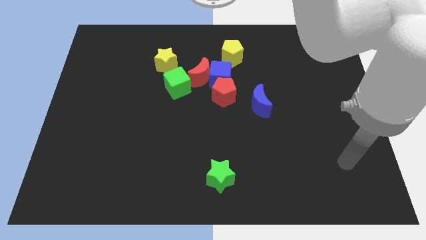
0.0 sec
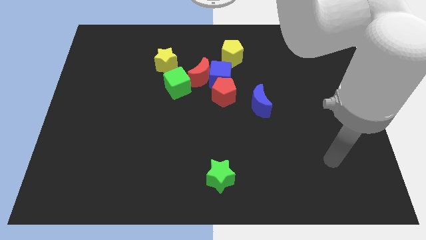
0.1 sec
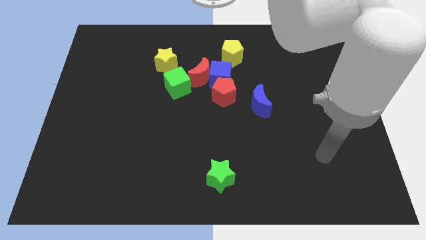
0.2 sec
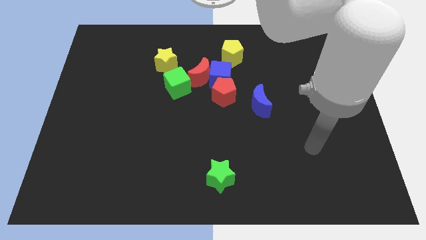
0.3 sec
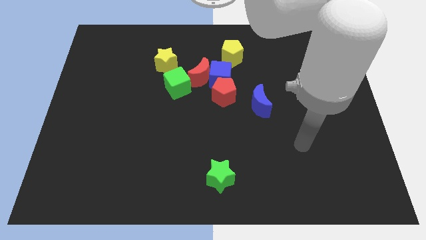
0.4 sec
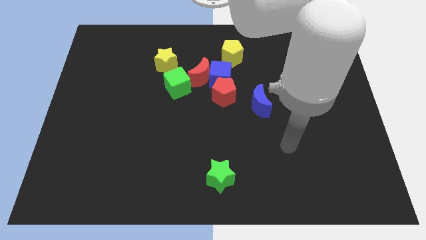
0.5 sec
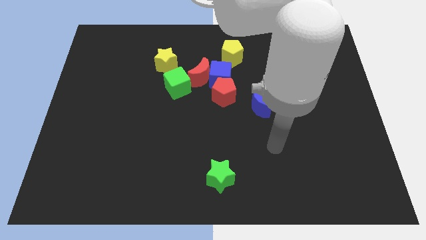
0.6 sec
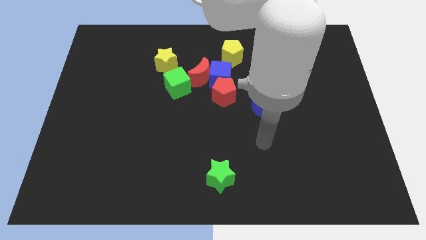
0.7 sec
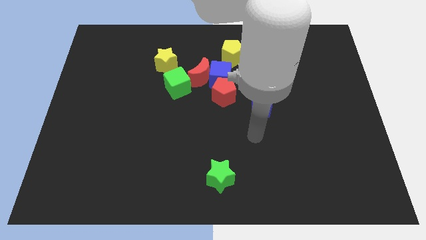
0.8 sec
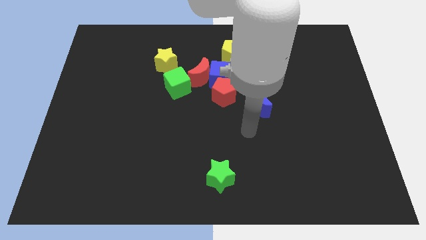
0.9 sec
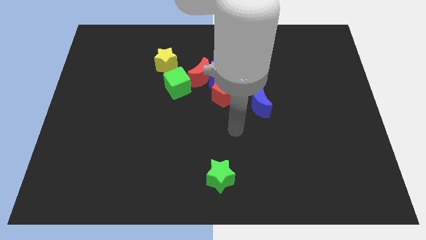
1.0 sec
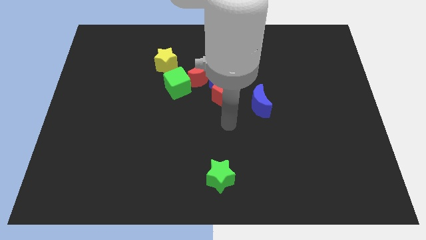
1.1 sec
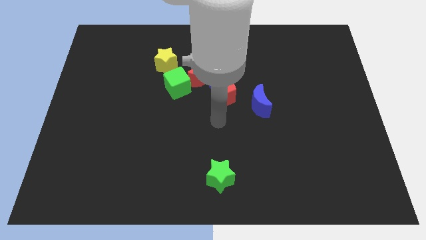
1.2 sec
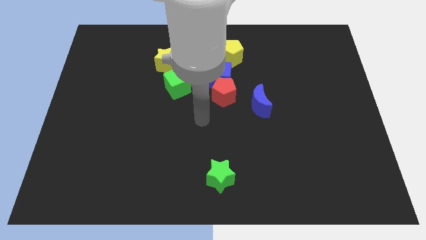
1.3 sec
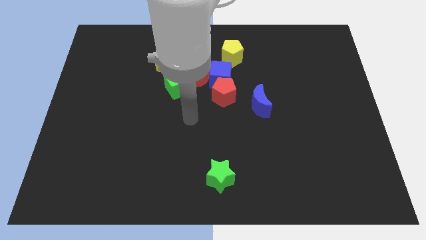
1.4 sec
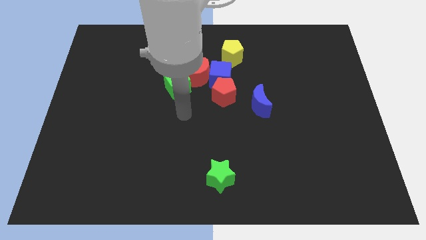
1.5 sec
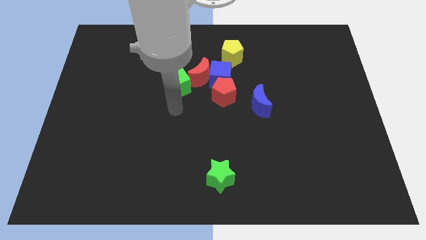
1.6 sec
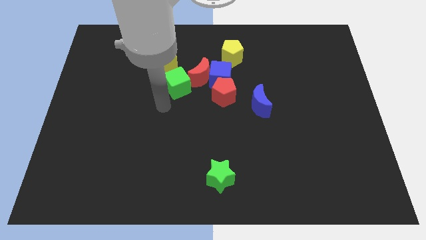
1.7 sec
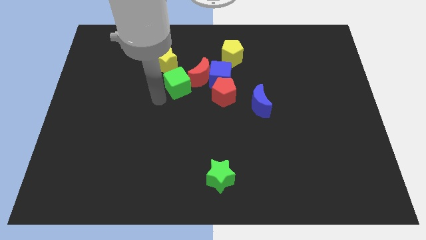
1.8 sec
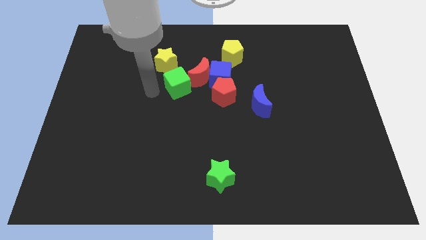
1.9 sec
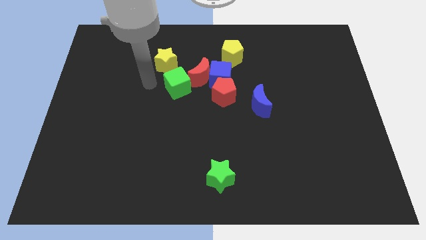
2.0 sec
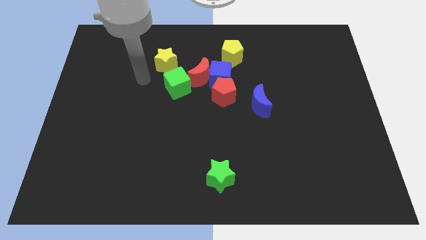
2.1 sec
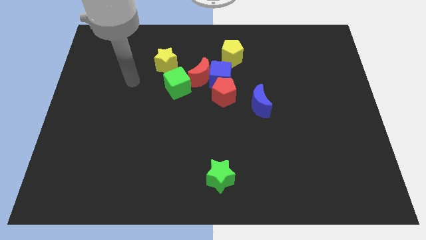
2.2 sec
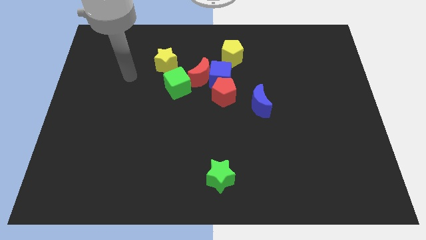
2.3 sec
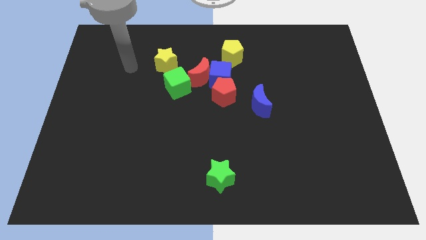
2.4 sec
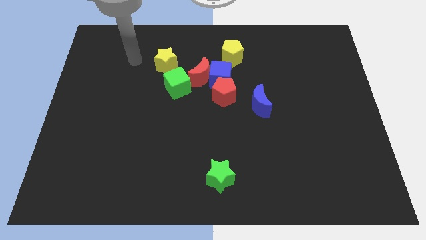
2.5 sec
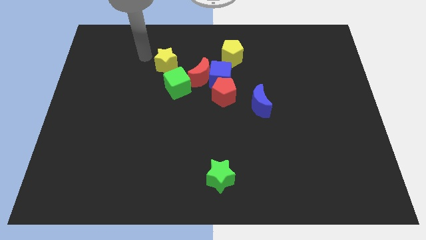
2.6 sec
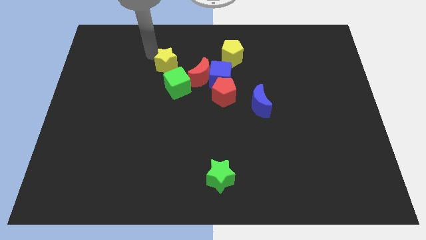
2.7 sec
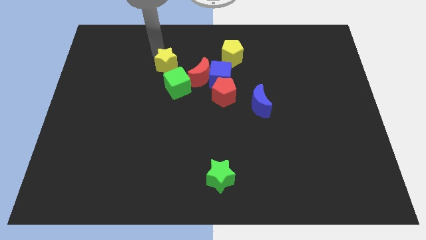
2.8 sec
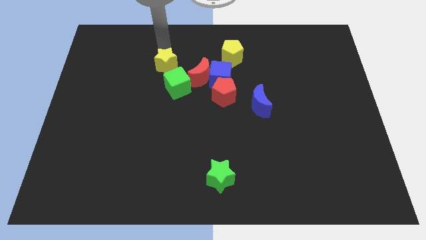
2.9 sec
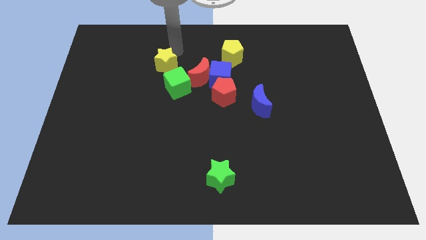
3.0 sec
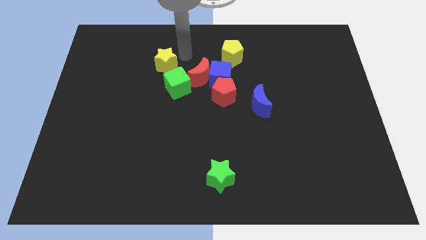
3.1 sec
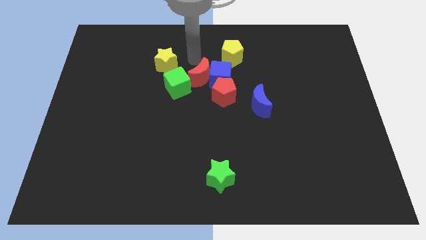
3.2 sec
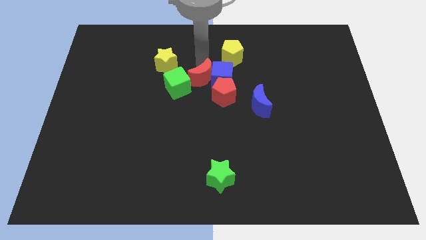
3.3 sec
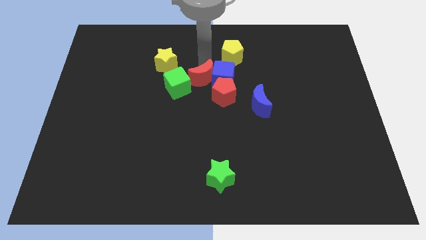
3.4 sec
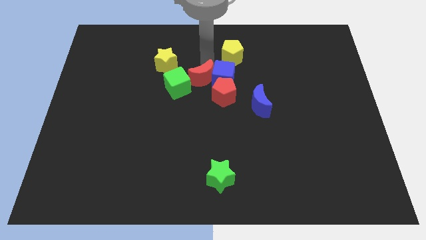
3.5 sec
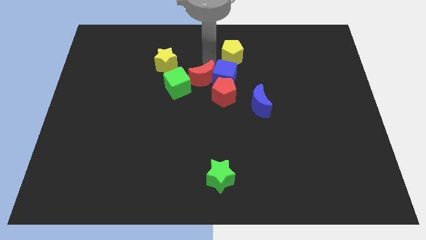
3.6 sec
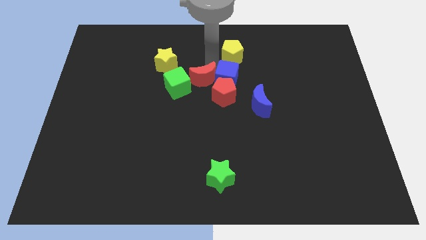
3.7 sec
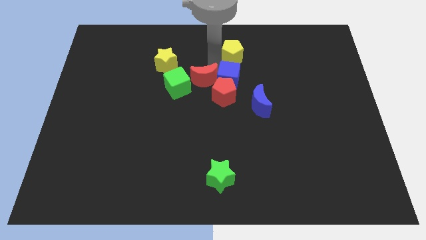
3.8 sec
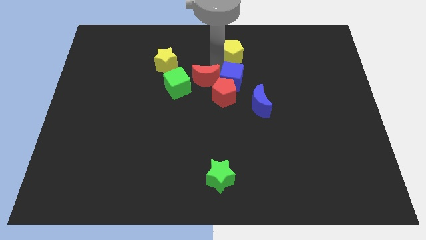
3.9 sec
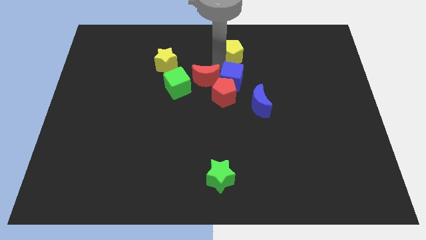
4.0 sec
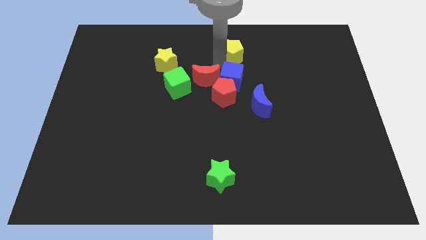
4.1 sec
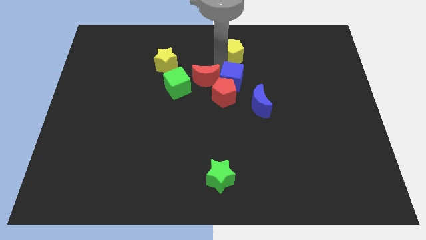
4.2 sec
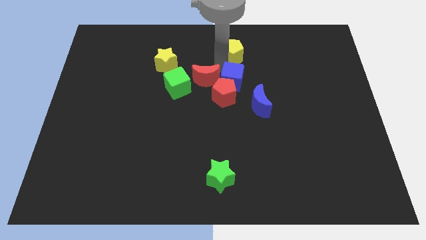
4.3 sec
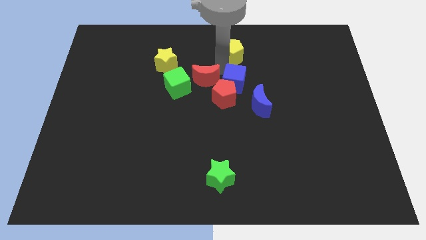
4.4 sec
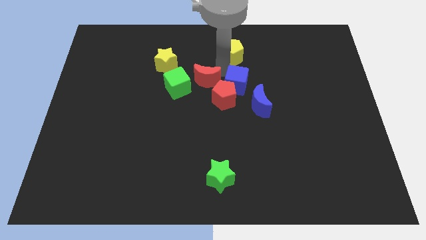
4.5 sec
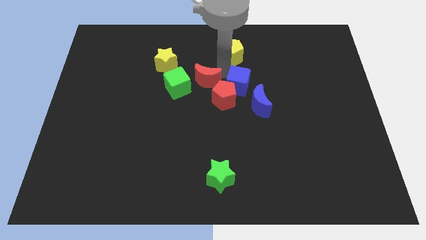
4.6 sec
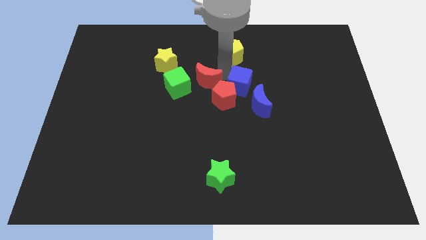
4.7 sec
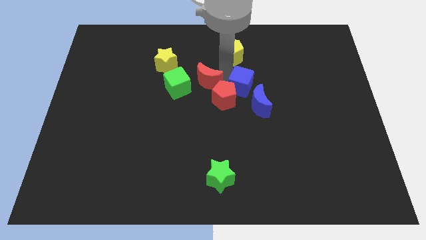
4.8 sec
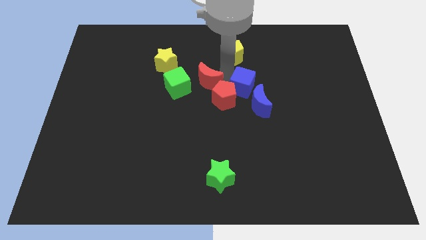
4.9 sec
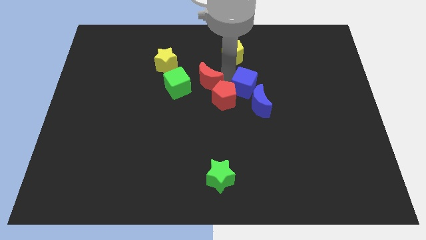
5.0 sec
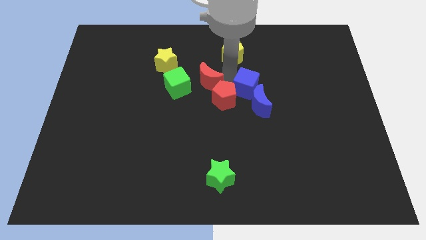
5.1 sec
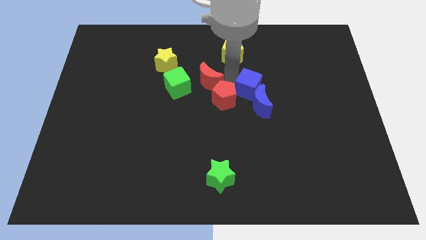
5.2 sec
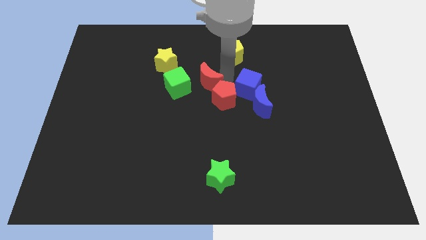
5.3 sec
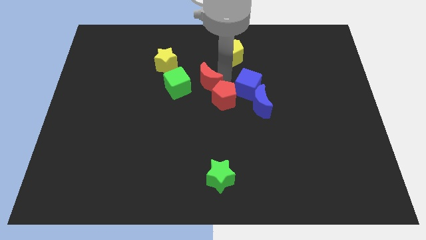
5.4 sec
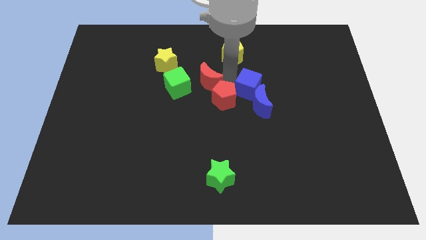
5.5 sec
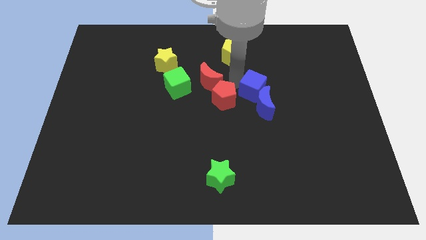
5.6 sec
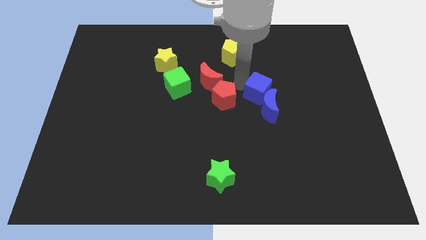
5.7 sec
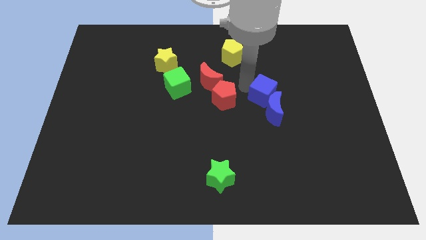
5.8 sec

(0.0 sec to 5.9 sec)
separate the blue cube from the red moon, red pentagon, and yellow pentagon

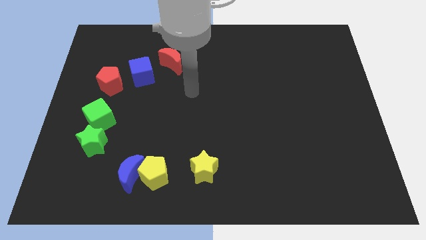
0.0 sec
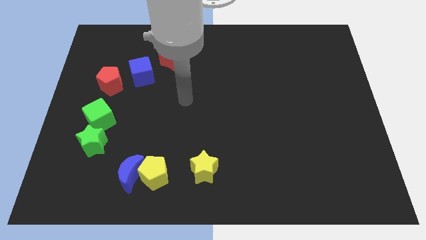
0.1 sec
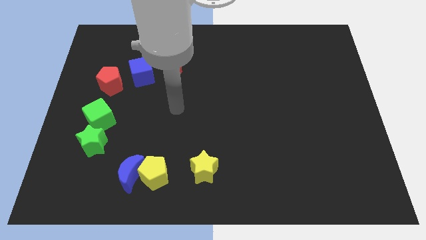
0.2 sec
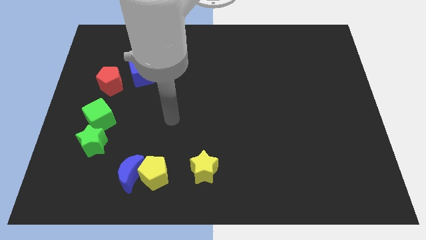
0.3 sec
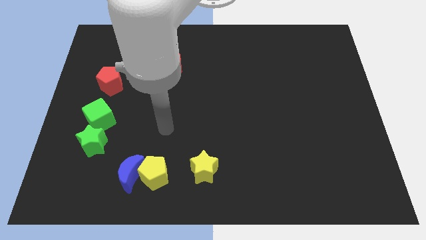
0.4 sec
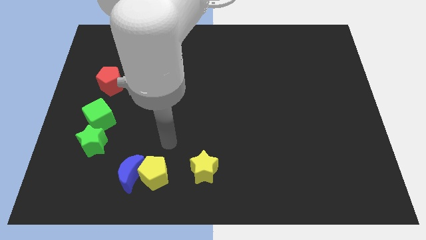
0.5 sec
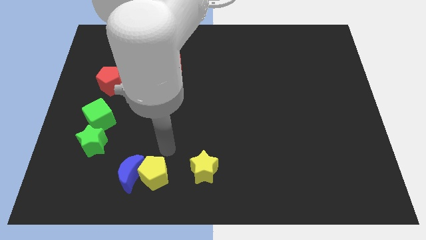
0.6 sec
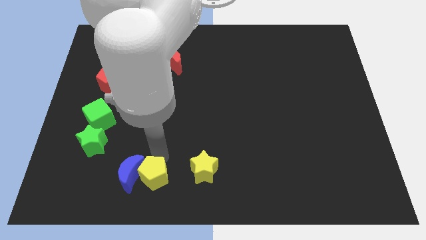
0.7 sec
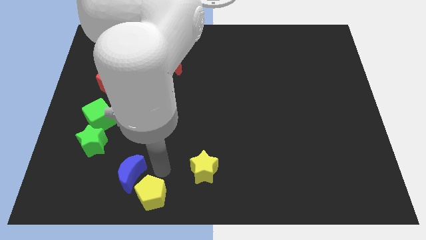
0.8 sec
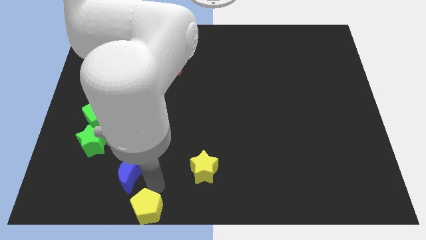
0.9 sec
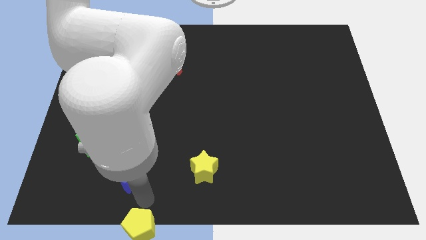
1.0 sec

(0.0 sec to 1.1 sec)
move the blue moon away from the yellow pentagon

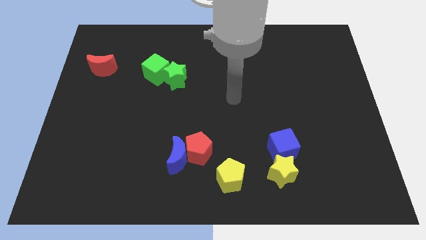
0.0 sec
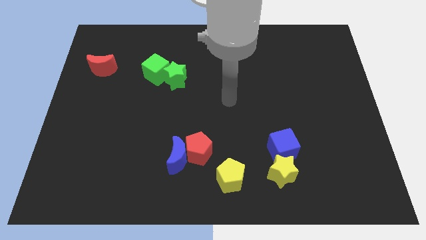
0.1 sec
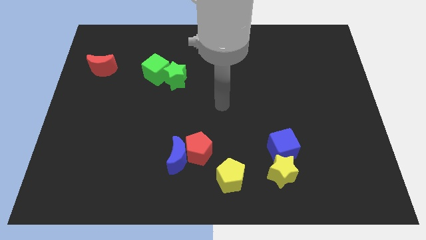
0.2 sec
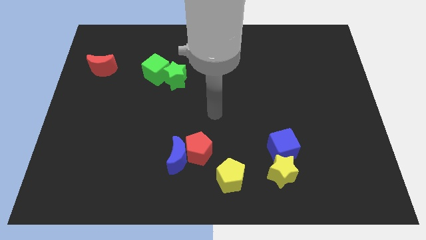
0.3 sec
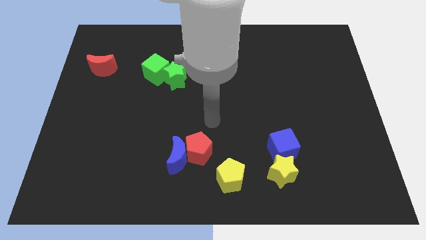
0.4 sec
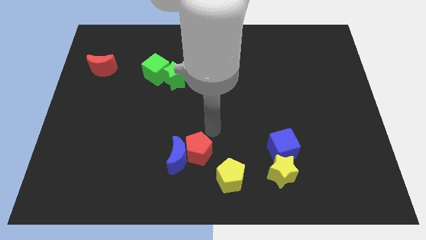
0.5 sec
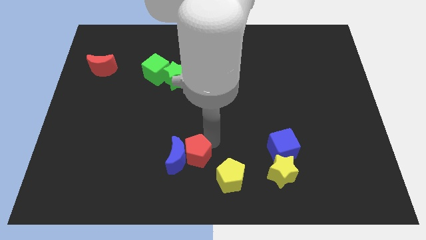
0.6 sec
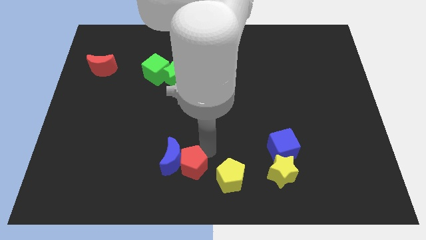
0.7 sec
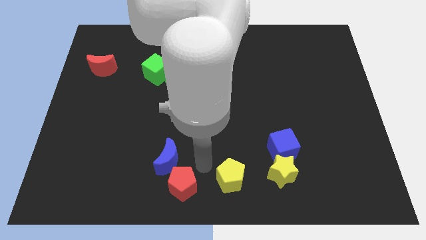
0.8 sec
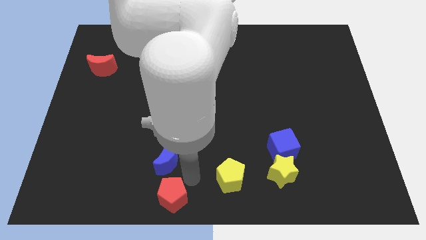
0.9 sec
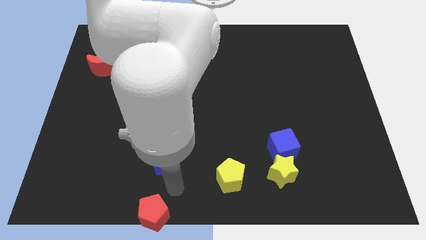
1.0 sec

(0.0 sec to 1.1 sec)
separate the blue moon from the red pentagon

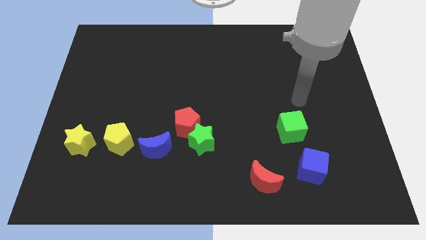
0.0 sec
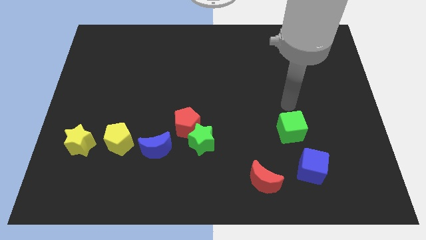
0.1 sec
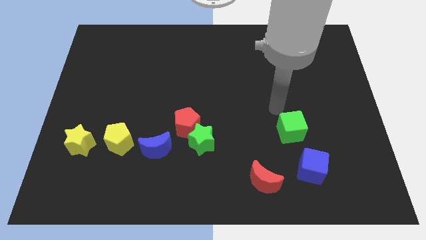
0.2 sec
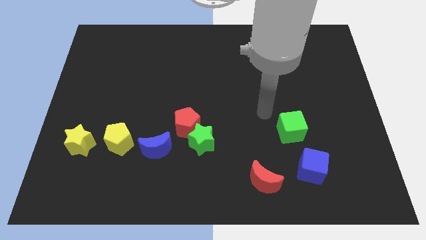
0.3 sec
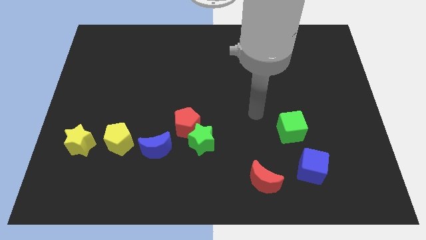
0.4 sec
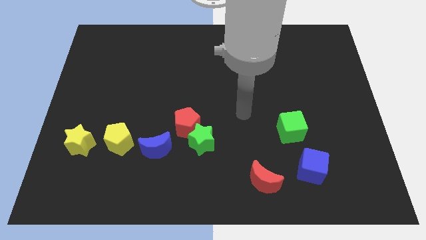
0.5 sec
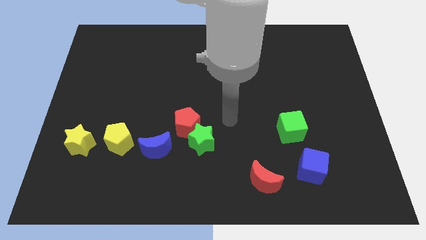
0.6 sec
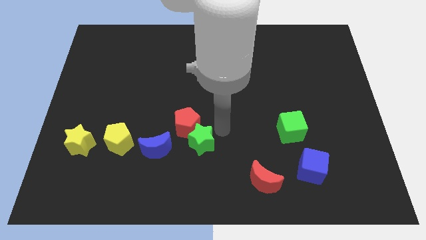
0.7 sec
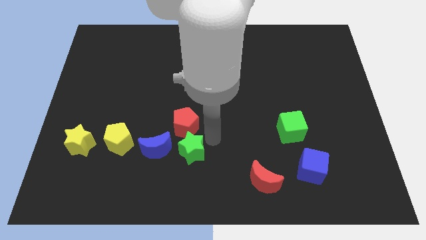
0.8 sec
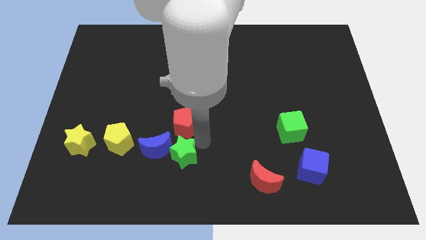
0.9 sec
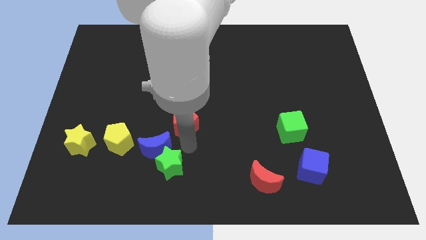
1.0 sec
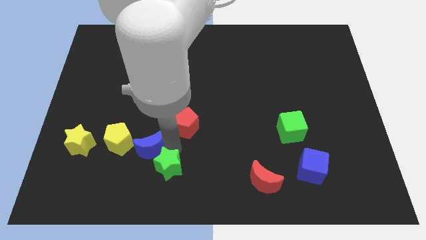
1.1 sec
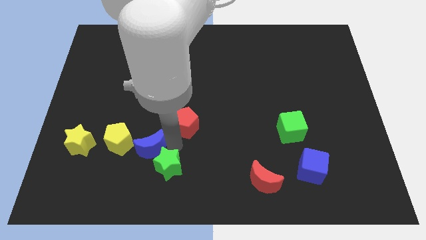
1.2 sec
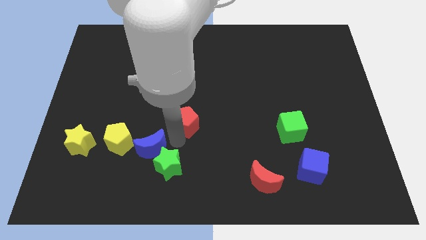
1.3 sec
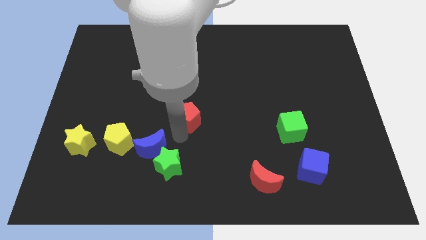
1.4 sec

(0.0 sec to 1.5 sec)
separate the red pentagon from the green star and blue moon
